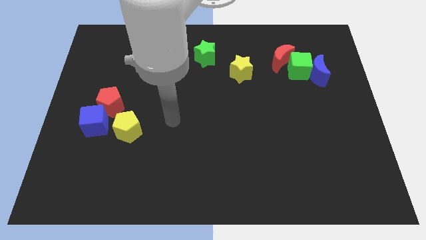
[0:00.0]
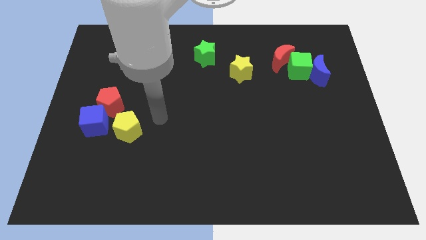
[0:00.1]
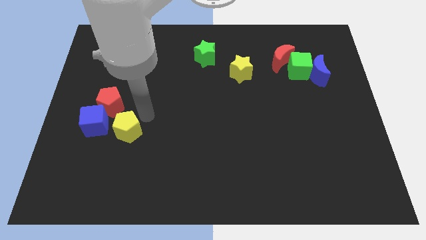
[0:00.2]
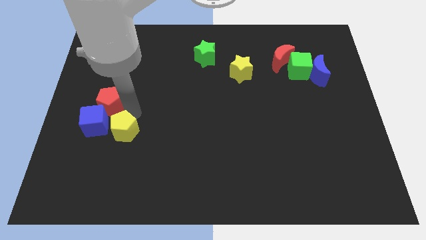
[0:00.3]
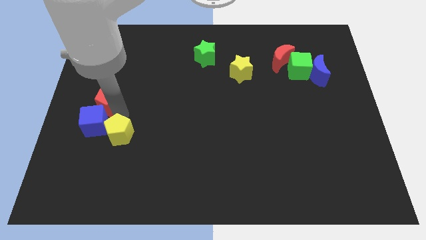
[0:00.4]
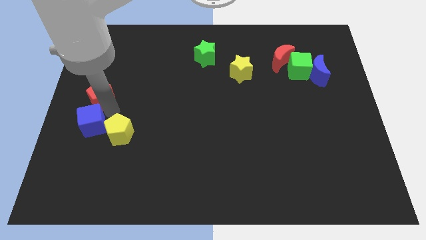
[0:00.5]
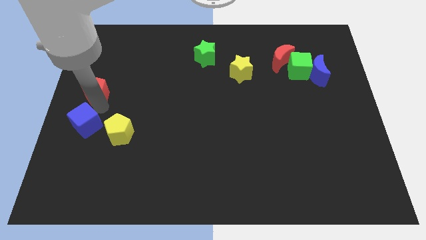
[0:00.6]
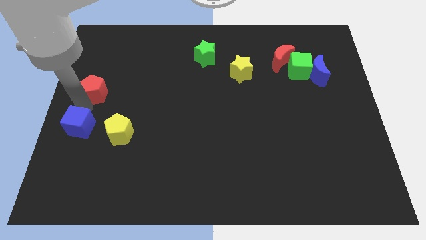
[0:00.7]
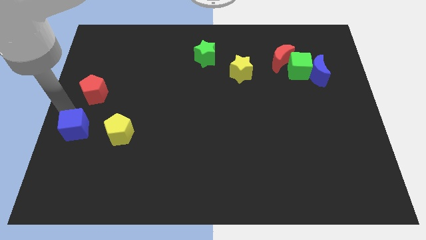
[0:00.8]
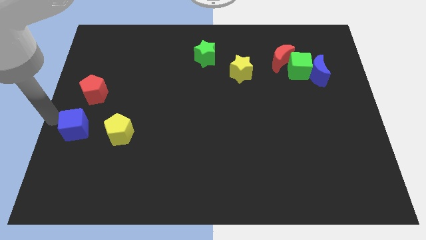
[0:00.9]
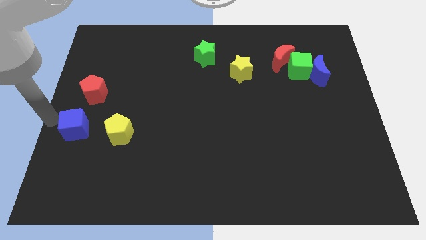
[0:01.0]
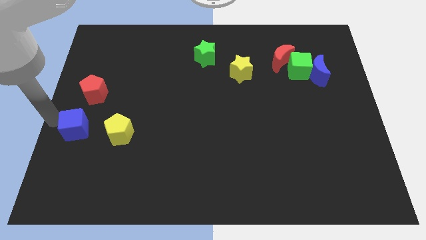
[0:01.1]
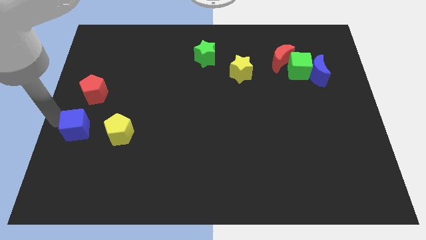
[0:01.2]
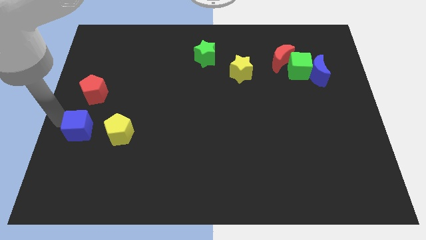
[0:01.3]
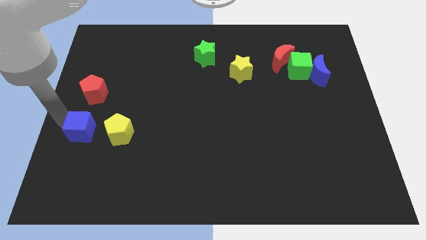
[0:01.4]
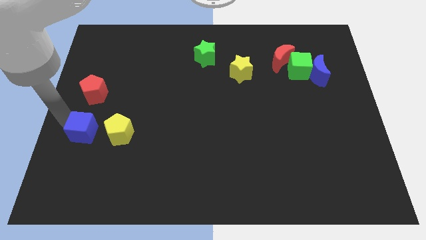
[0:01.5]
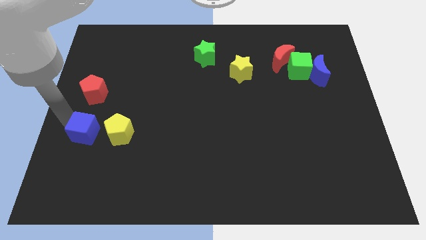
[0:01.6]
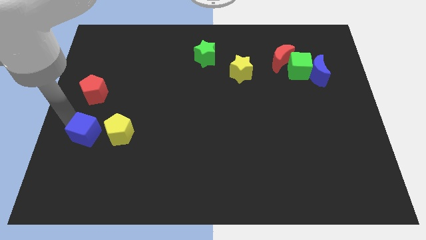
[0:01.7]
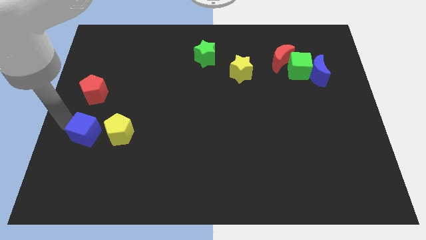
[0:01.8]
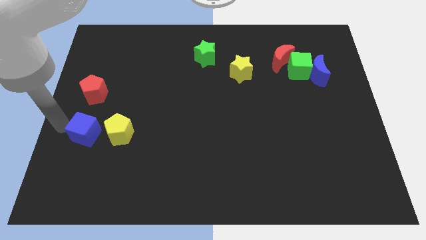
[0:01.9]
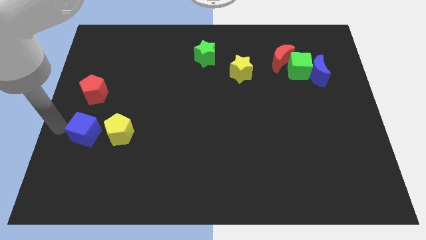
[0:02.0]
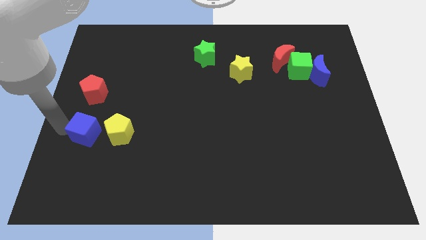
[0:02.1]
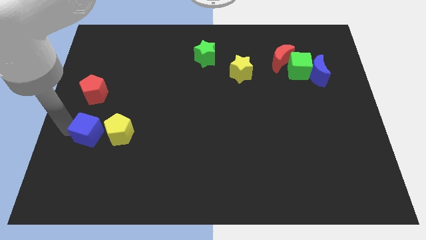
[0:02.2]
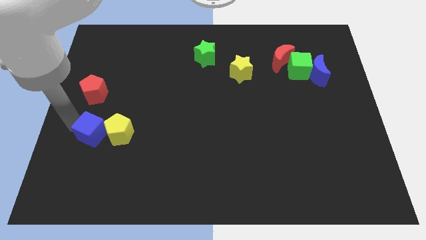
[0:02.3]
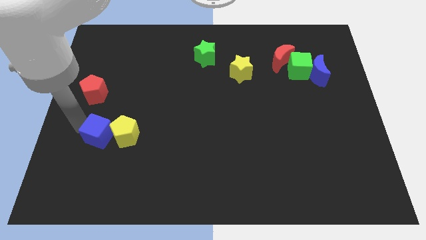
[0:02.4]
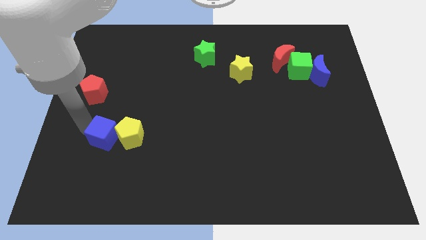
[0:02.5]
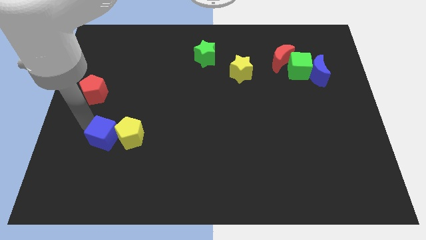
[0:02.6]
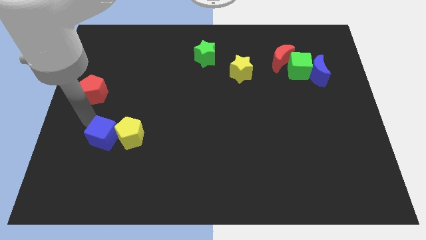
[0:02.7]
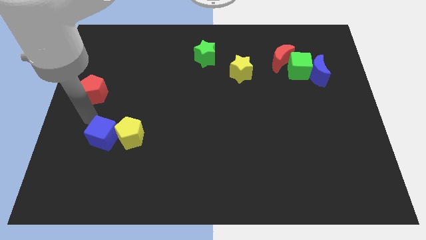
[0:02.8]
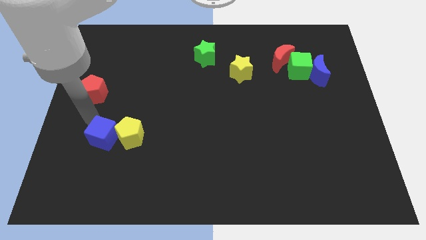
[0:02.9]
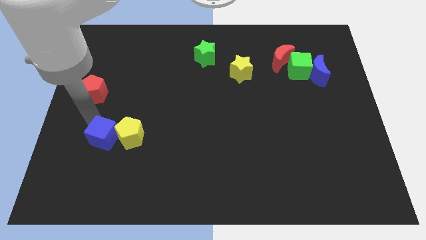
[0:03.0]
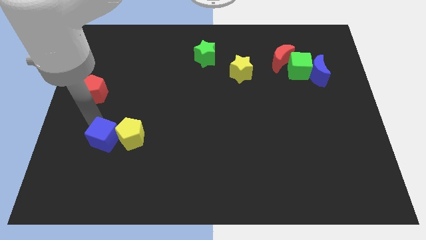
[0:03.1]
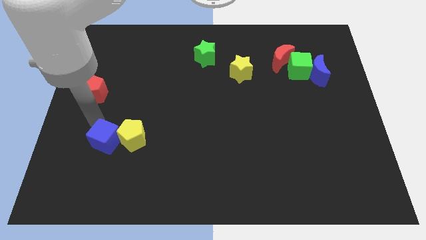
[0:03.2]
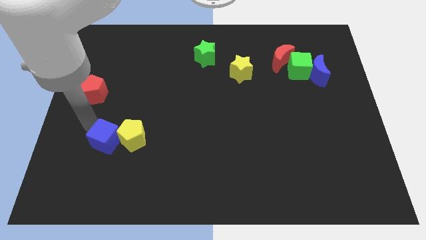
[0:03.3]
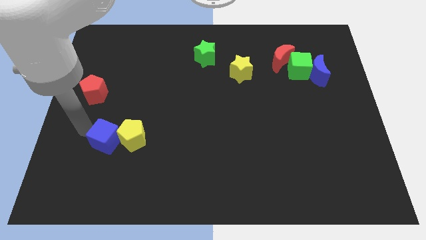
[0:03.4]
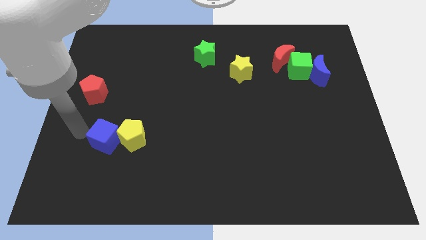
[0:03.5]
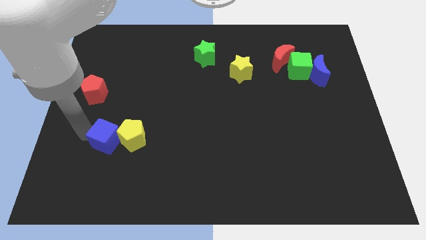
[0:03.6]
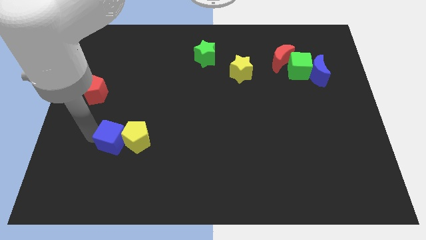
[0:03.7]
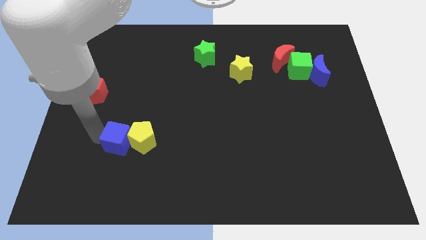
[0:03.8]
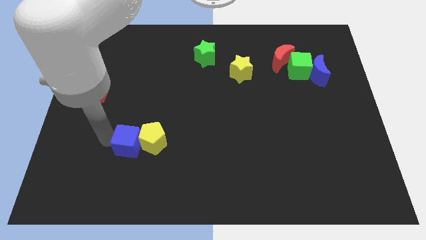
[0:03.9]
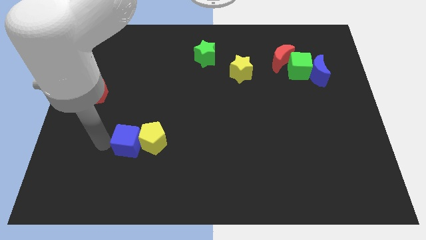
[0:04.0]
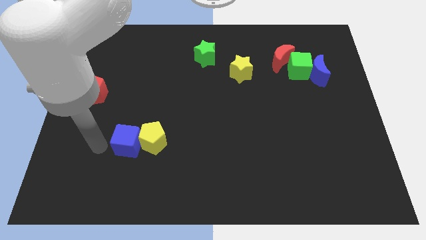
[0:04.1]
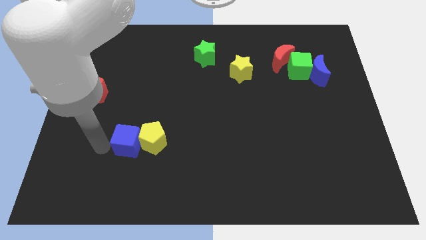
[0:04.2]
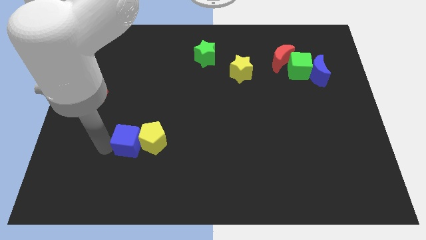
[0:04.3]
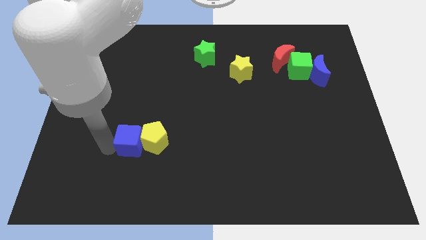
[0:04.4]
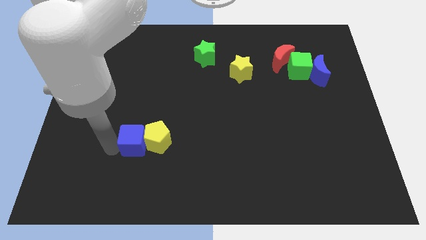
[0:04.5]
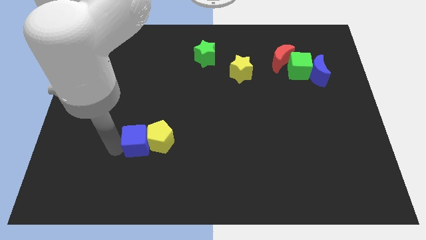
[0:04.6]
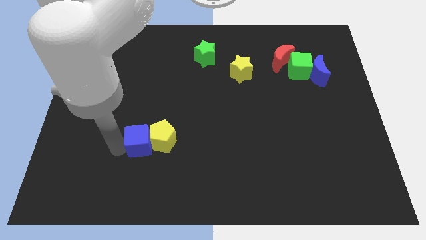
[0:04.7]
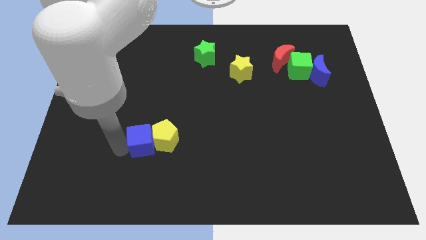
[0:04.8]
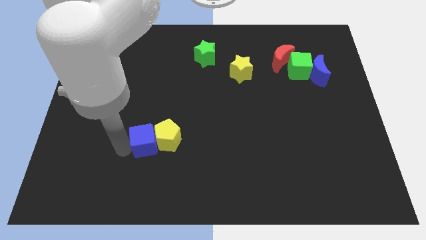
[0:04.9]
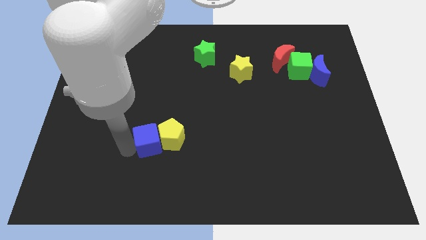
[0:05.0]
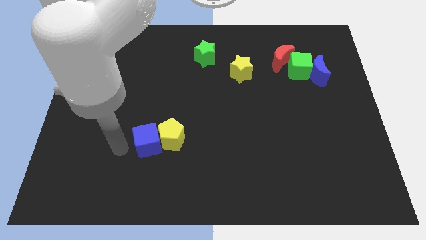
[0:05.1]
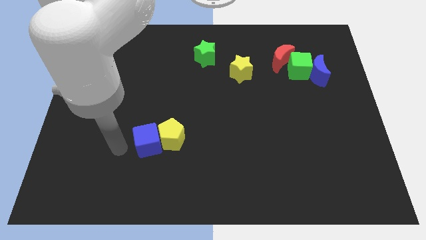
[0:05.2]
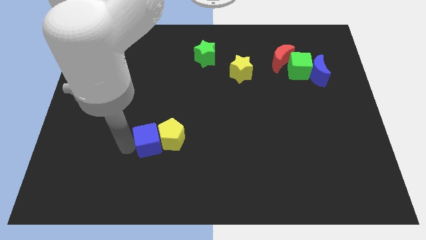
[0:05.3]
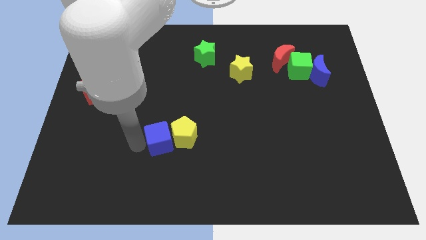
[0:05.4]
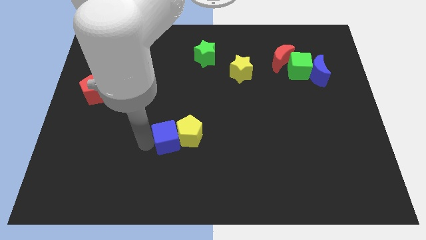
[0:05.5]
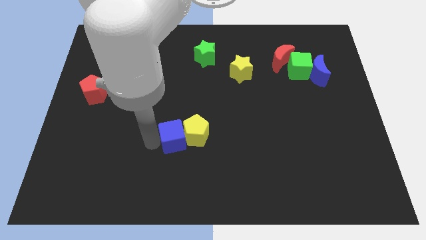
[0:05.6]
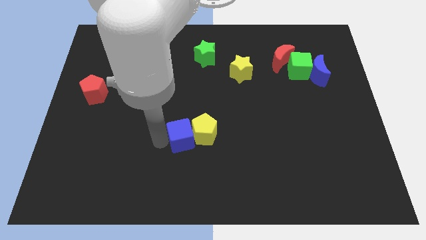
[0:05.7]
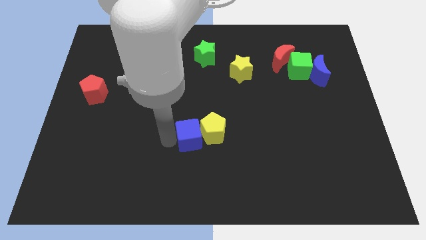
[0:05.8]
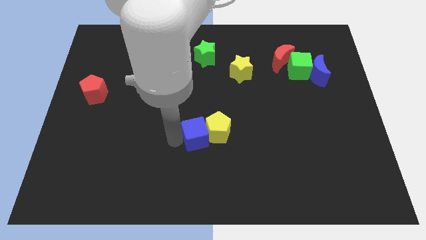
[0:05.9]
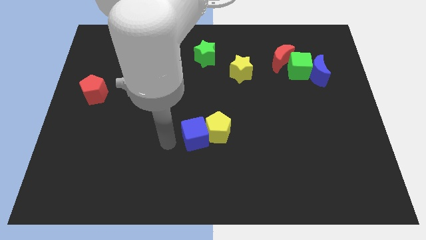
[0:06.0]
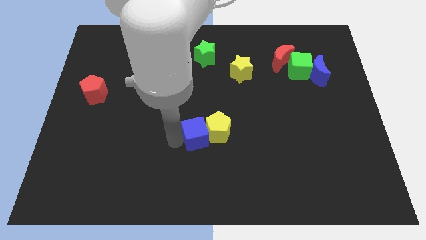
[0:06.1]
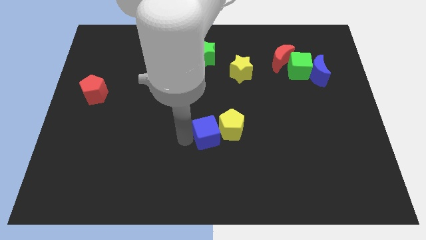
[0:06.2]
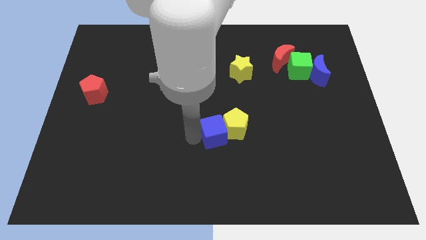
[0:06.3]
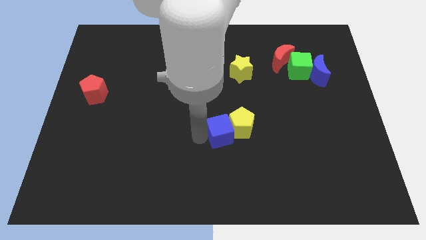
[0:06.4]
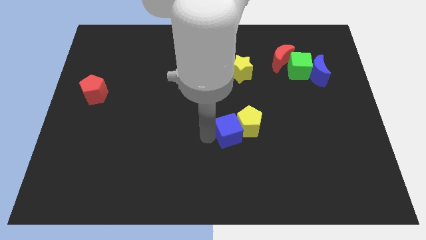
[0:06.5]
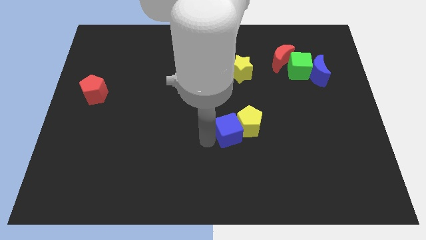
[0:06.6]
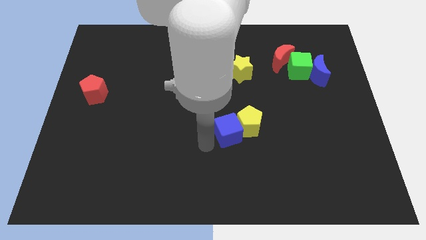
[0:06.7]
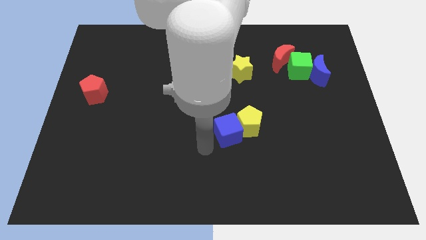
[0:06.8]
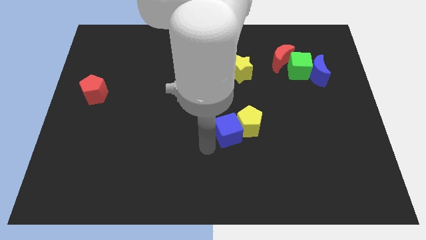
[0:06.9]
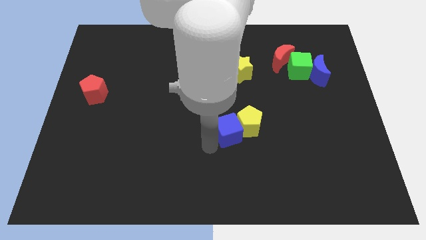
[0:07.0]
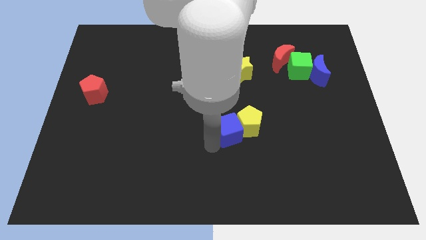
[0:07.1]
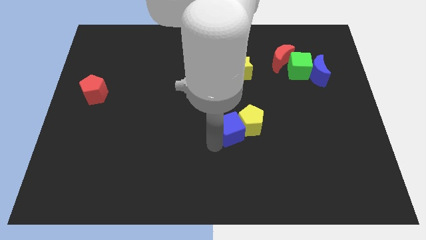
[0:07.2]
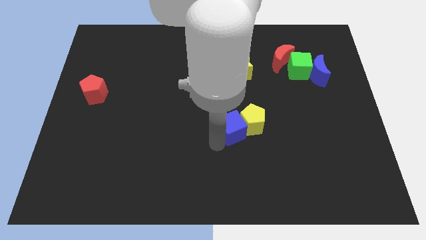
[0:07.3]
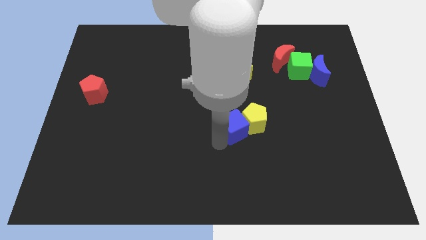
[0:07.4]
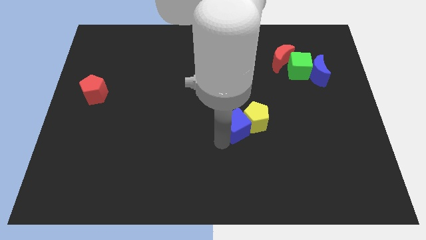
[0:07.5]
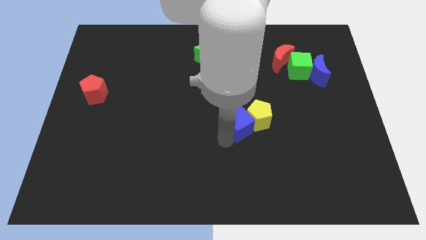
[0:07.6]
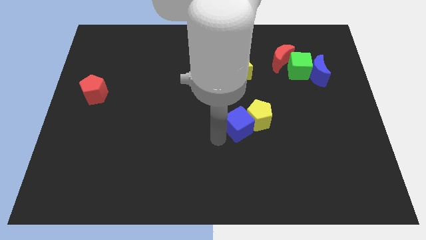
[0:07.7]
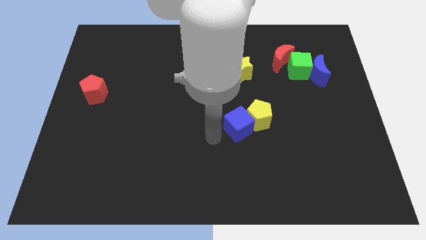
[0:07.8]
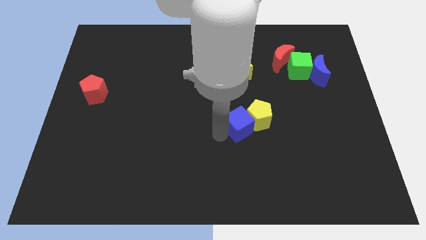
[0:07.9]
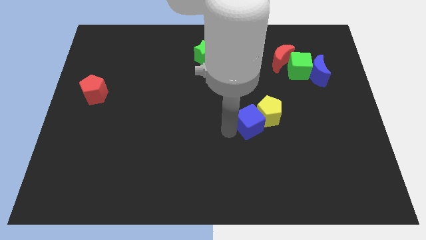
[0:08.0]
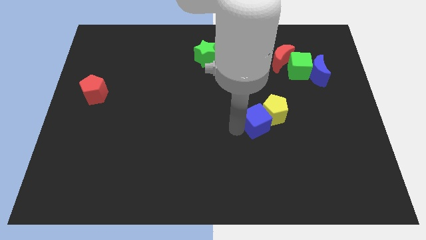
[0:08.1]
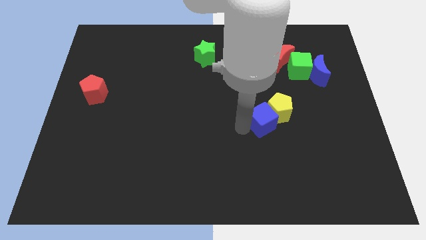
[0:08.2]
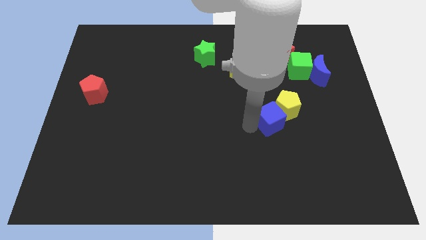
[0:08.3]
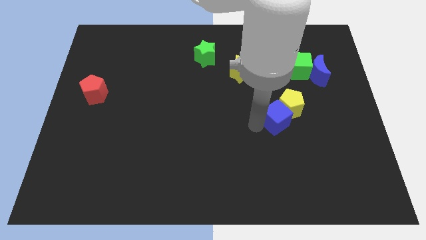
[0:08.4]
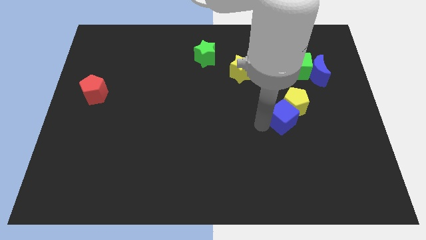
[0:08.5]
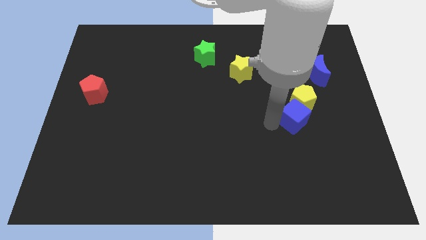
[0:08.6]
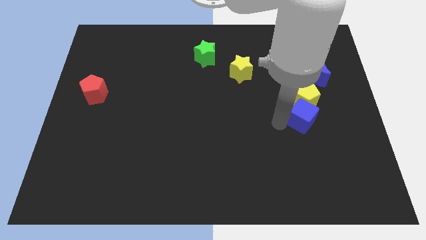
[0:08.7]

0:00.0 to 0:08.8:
move the blue cube below the green cube
